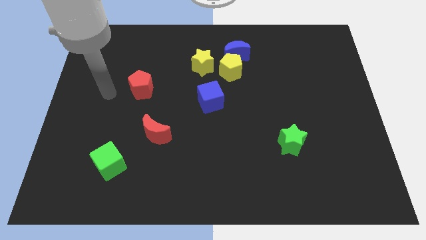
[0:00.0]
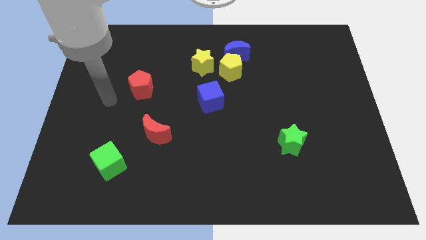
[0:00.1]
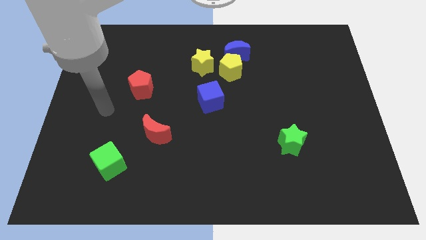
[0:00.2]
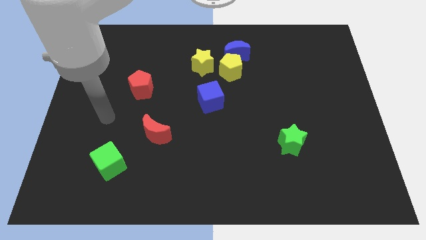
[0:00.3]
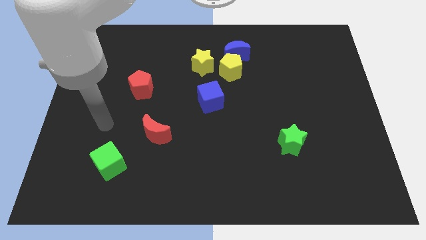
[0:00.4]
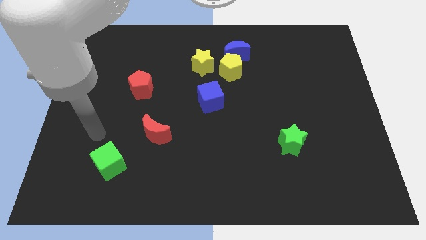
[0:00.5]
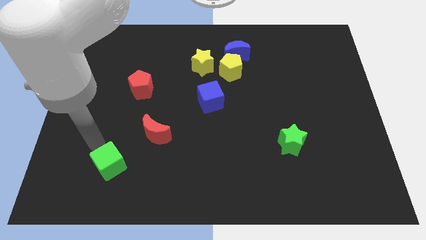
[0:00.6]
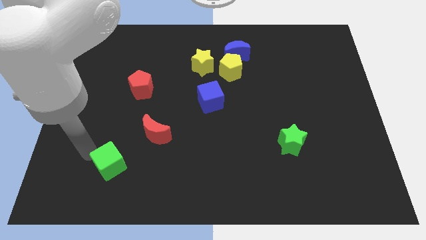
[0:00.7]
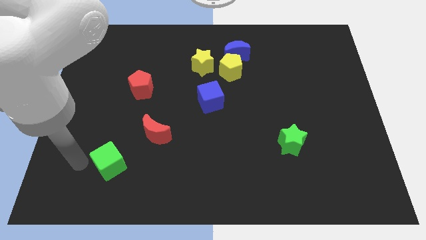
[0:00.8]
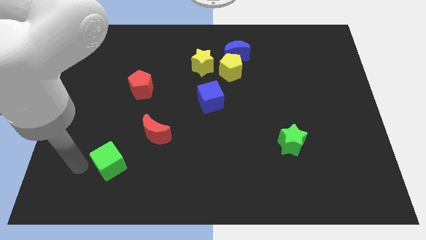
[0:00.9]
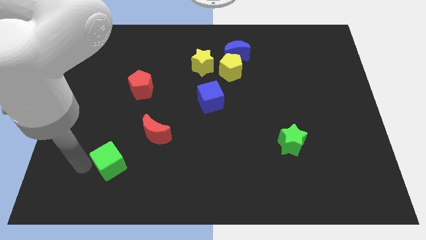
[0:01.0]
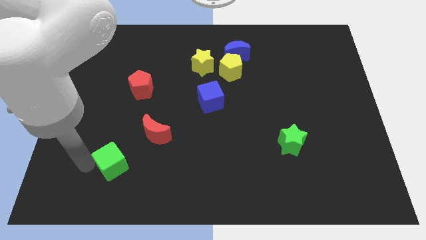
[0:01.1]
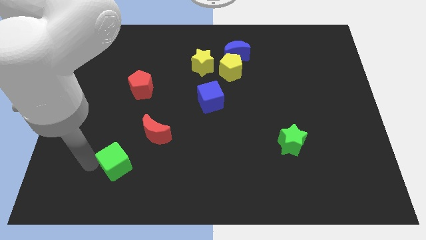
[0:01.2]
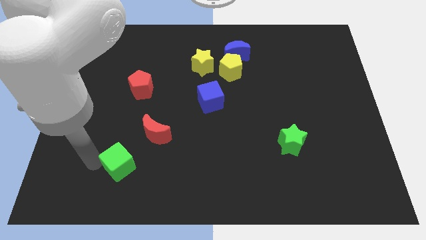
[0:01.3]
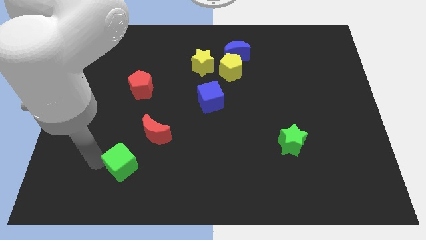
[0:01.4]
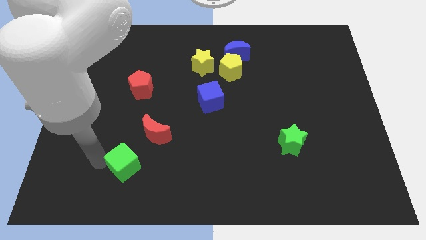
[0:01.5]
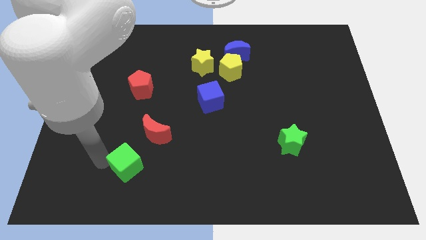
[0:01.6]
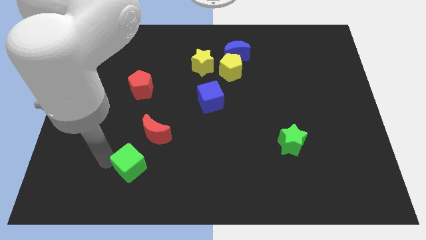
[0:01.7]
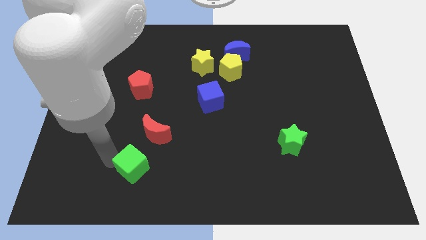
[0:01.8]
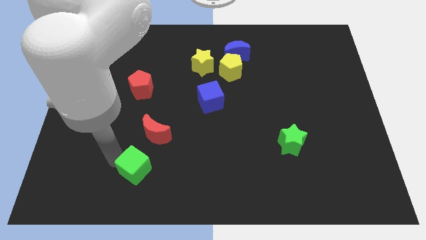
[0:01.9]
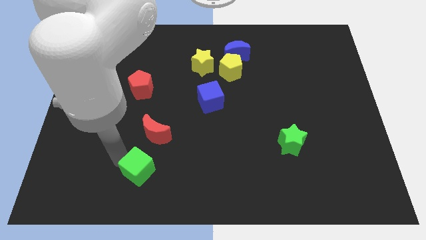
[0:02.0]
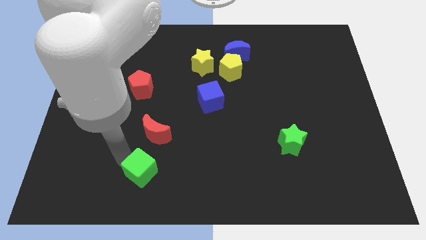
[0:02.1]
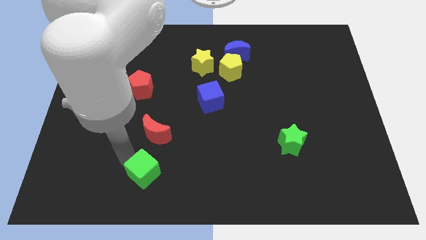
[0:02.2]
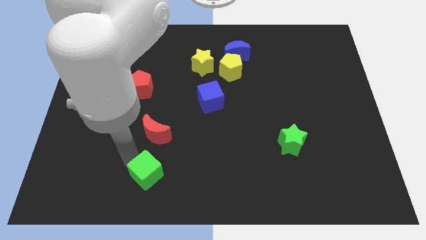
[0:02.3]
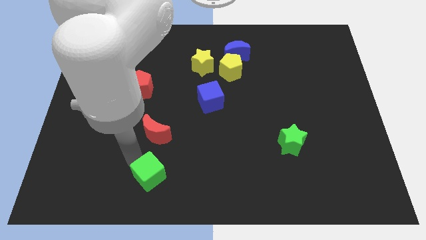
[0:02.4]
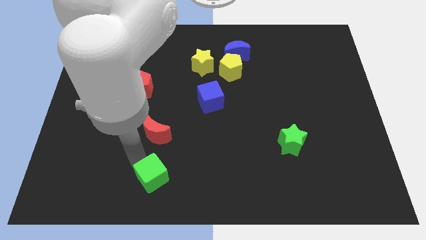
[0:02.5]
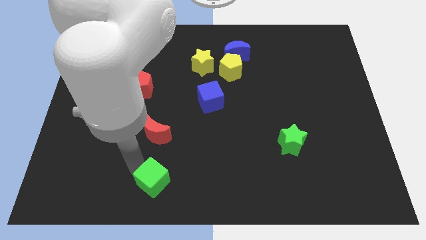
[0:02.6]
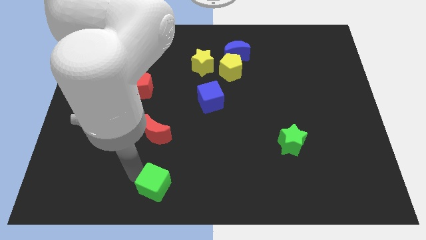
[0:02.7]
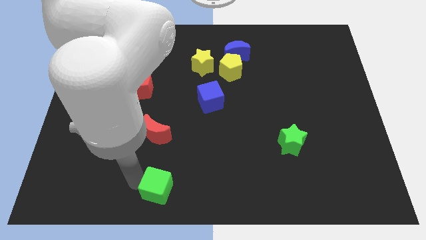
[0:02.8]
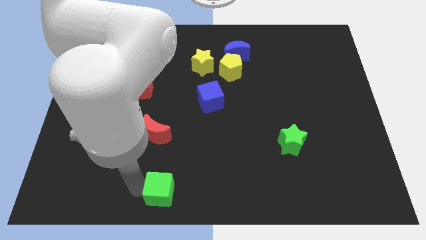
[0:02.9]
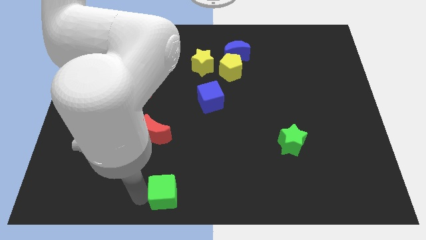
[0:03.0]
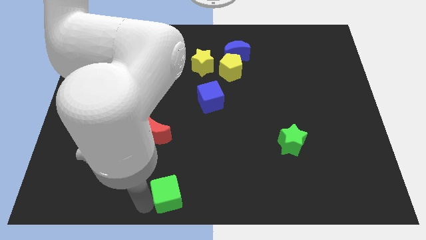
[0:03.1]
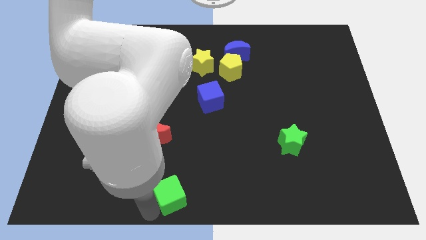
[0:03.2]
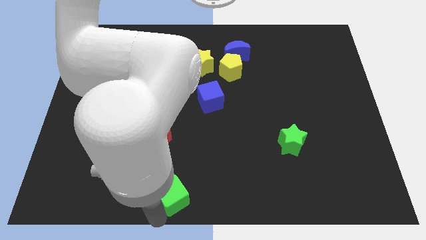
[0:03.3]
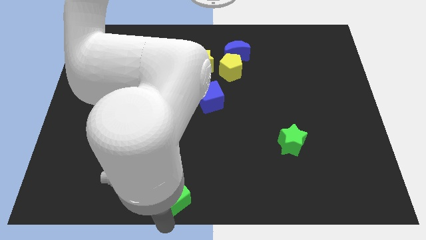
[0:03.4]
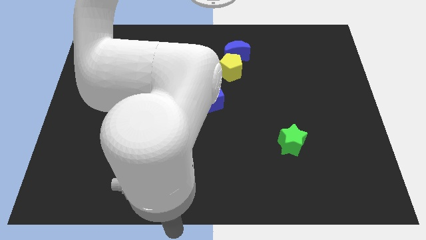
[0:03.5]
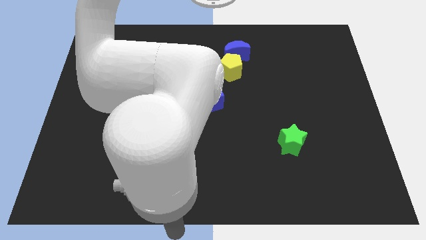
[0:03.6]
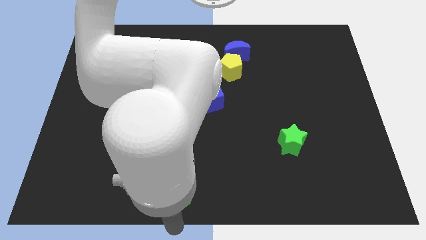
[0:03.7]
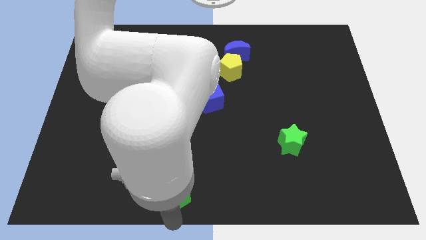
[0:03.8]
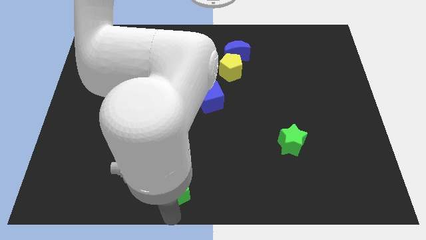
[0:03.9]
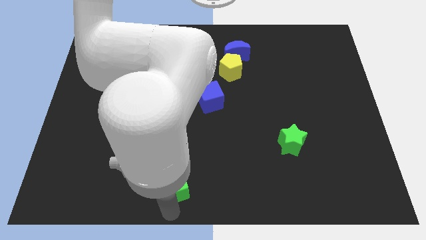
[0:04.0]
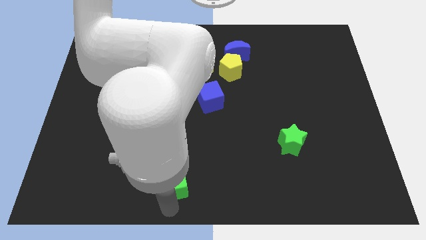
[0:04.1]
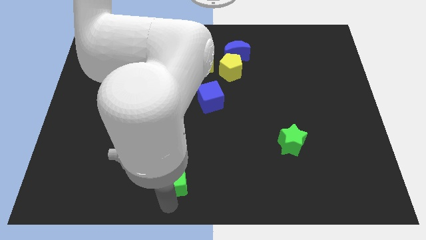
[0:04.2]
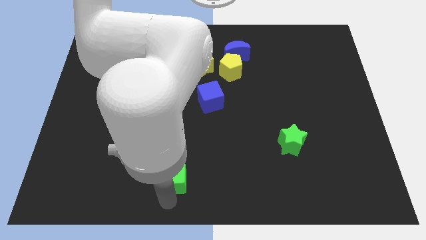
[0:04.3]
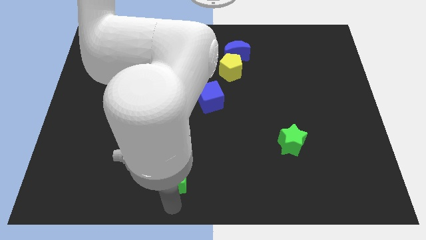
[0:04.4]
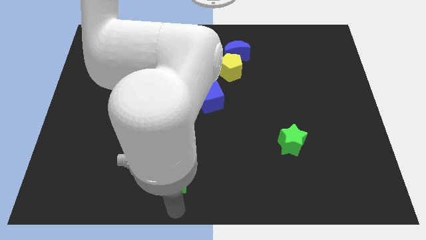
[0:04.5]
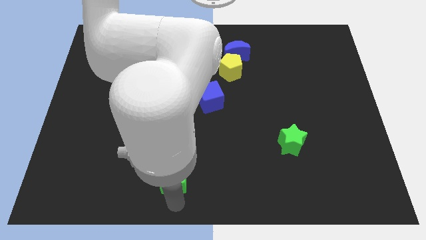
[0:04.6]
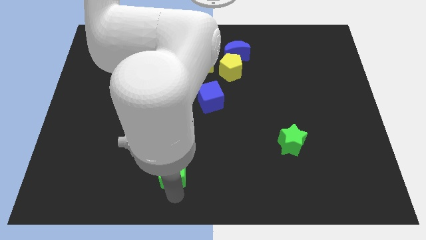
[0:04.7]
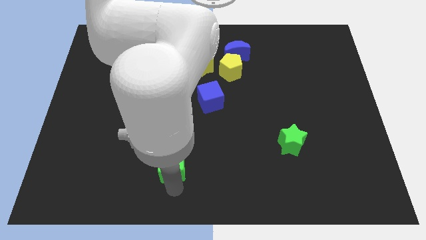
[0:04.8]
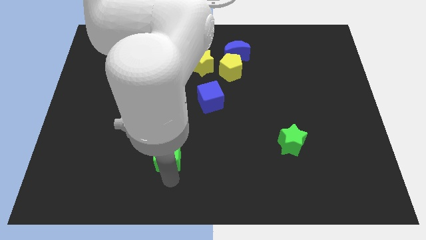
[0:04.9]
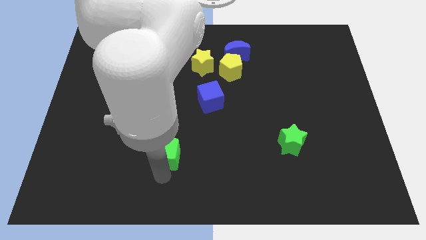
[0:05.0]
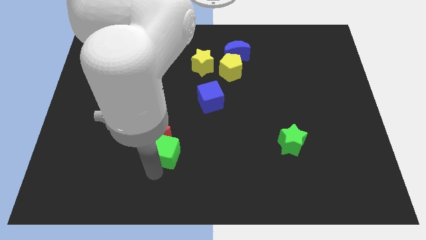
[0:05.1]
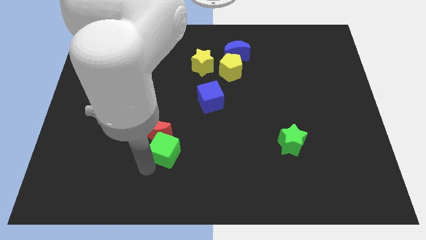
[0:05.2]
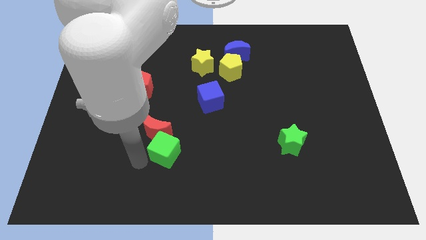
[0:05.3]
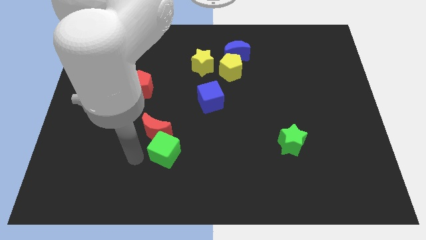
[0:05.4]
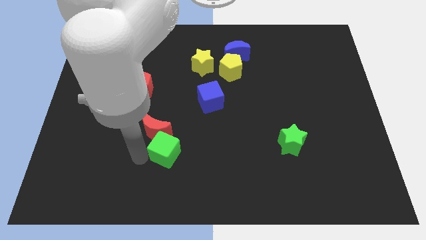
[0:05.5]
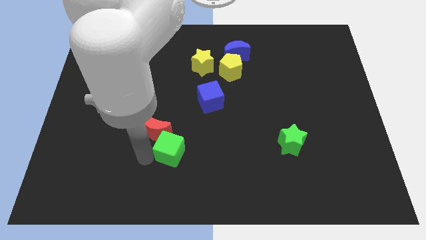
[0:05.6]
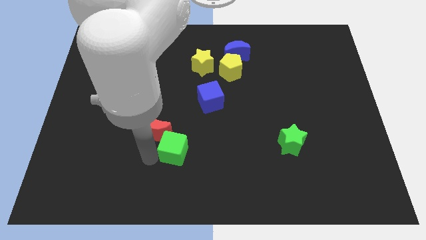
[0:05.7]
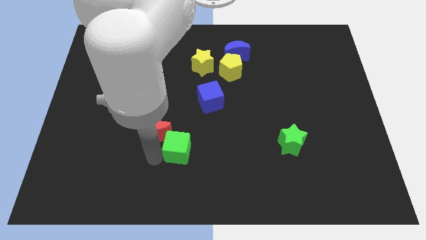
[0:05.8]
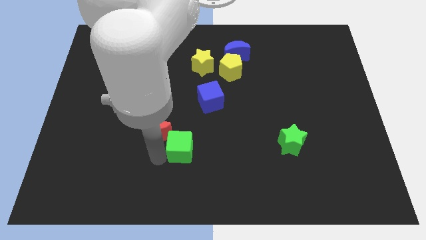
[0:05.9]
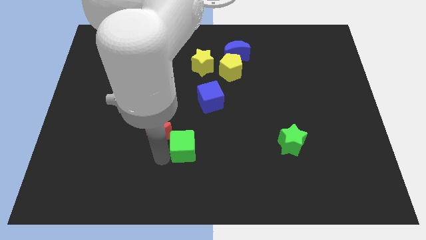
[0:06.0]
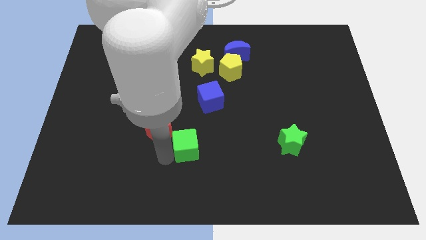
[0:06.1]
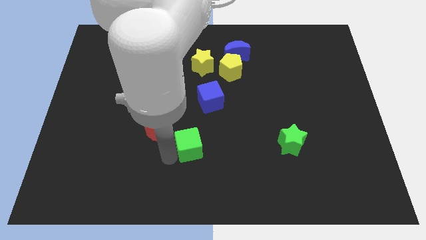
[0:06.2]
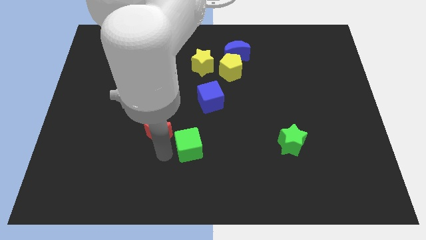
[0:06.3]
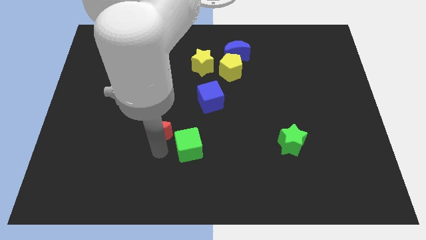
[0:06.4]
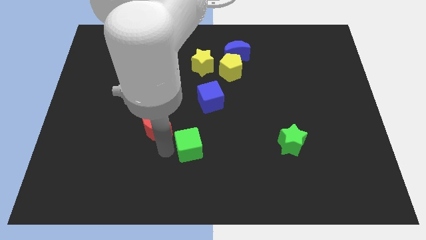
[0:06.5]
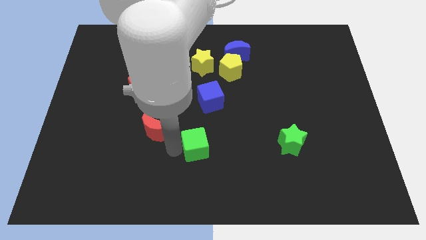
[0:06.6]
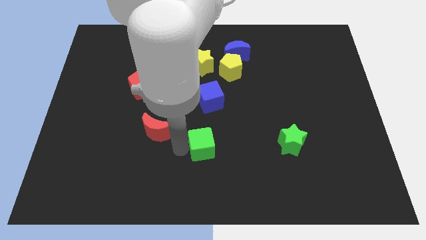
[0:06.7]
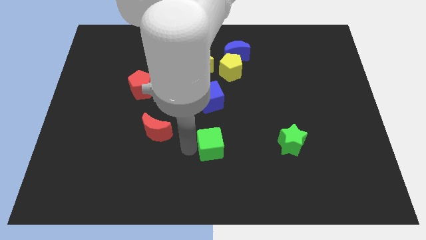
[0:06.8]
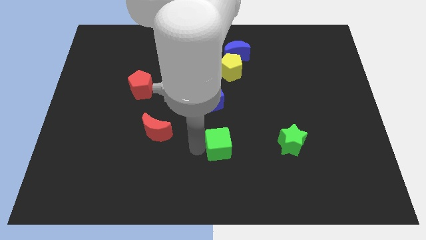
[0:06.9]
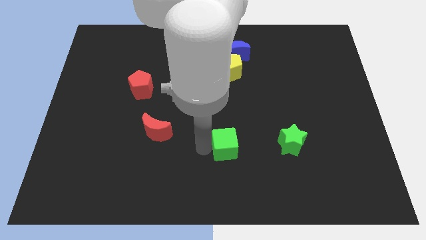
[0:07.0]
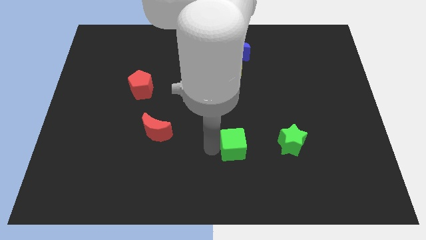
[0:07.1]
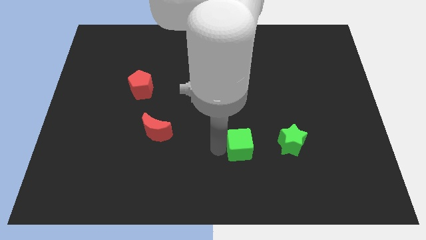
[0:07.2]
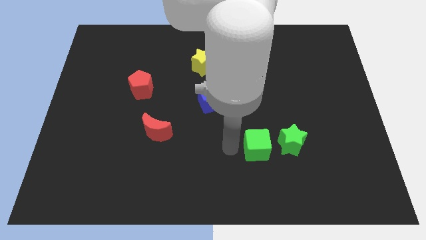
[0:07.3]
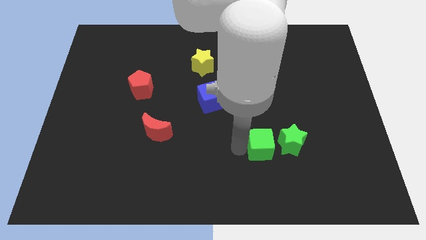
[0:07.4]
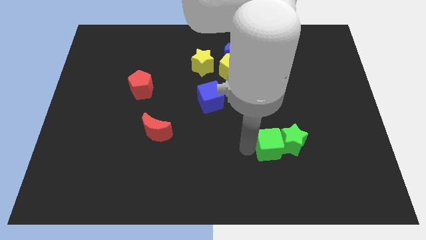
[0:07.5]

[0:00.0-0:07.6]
slide the green cube towards the green star
